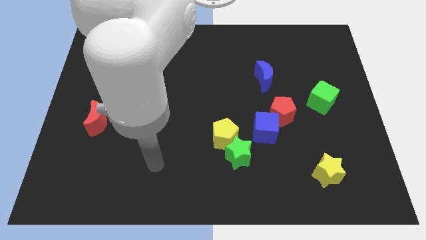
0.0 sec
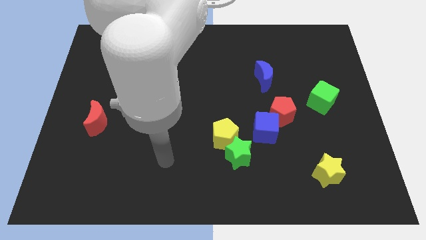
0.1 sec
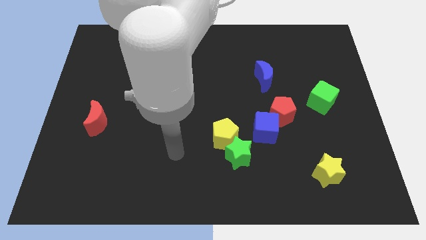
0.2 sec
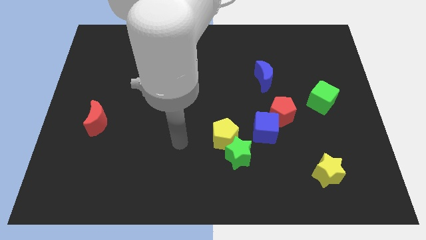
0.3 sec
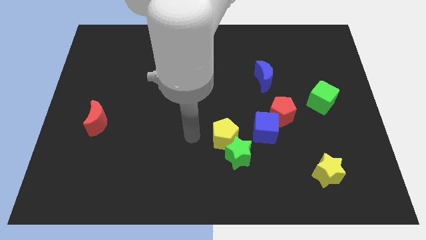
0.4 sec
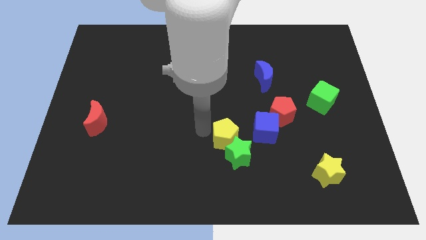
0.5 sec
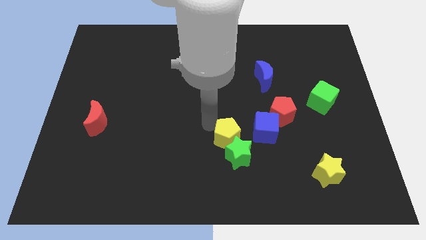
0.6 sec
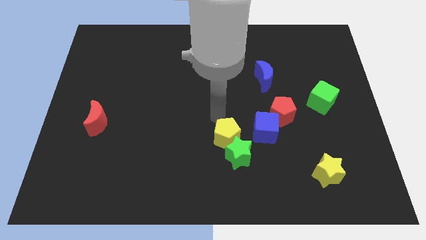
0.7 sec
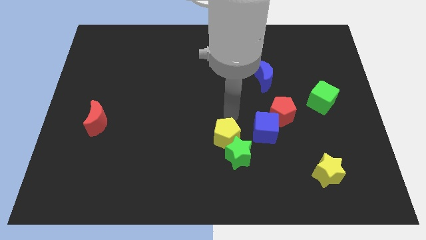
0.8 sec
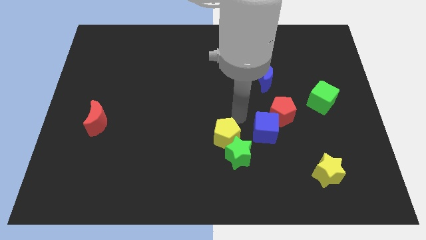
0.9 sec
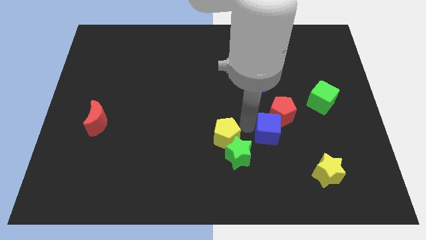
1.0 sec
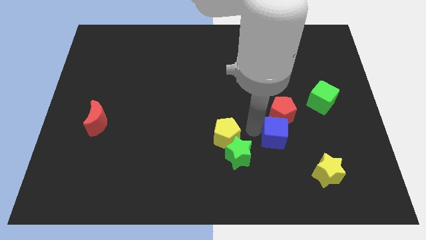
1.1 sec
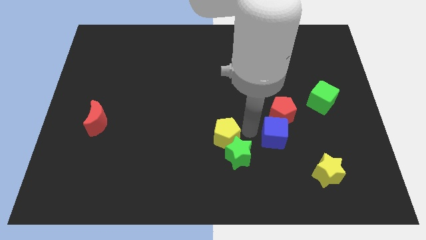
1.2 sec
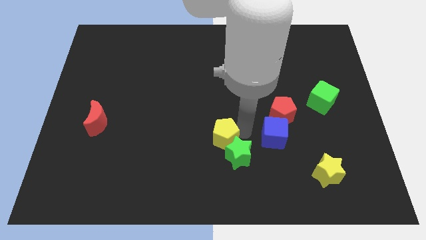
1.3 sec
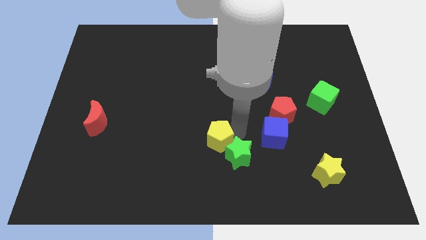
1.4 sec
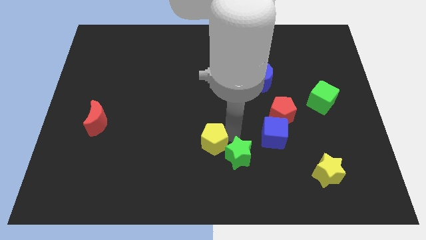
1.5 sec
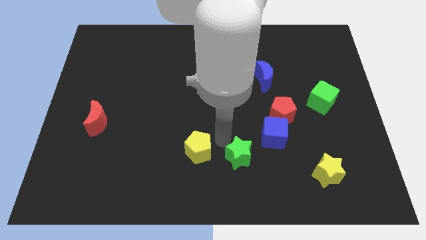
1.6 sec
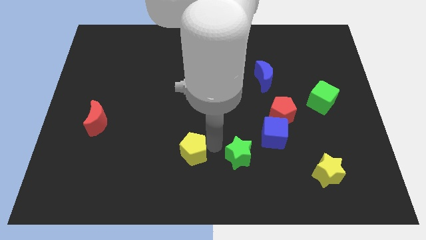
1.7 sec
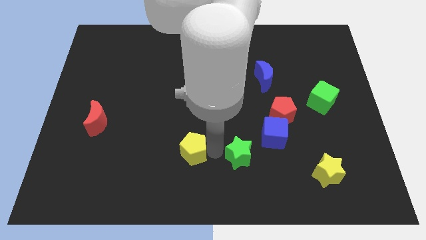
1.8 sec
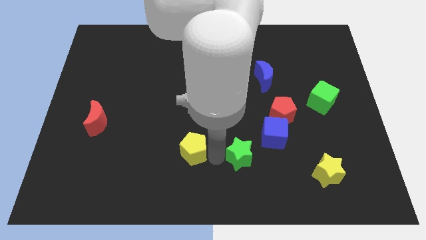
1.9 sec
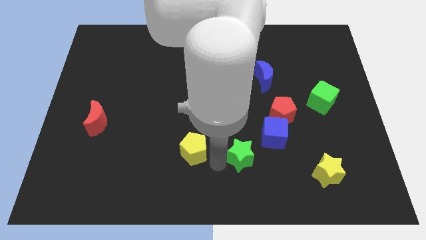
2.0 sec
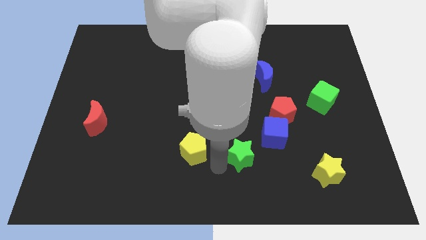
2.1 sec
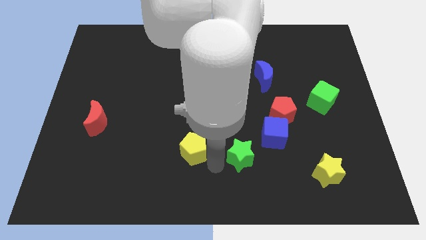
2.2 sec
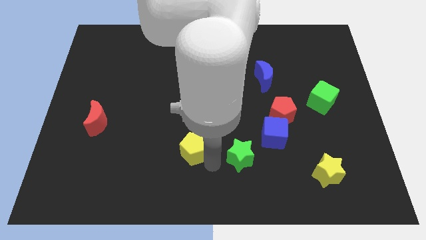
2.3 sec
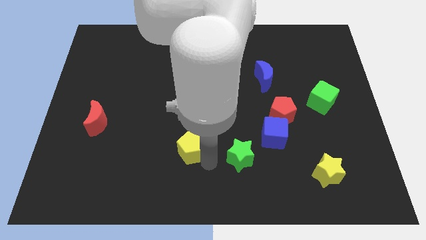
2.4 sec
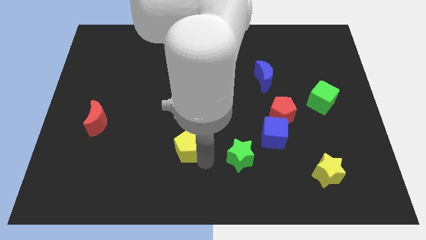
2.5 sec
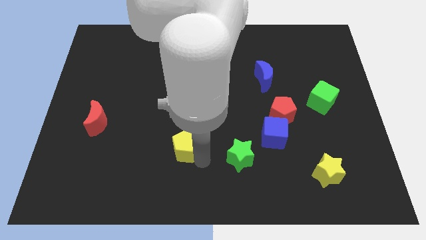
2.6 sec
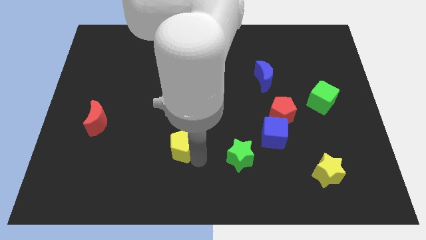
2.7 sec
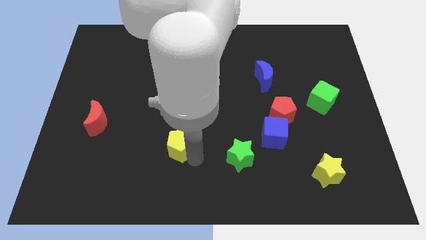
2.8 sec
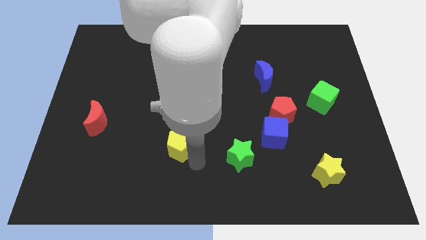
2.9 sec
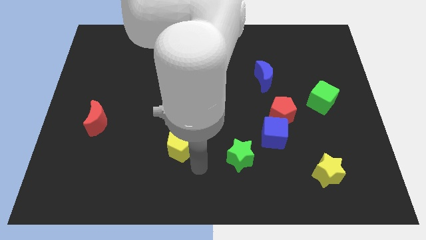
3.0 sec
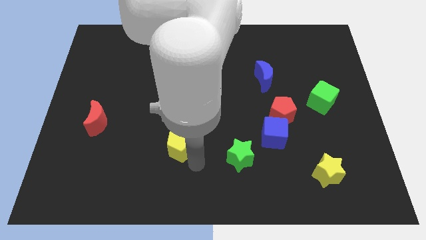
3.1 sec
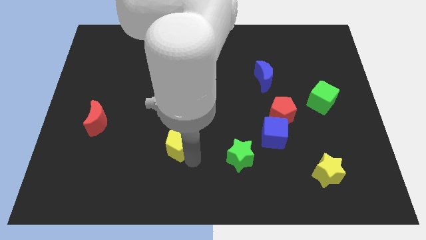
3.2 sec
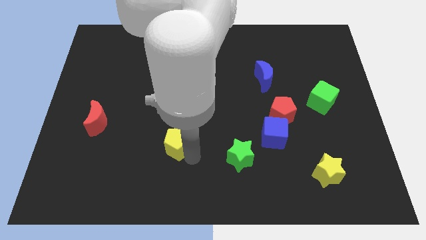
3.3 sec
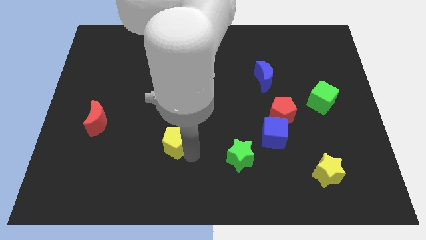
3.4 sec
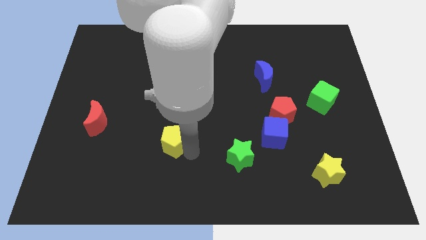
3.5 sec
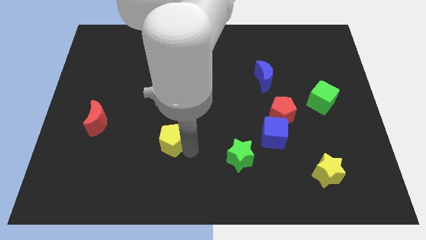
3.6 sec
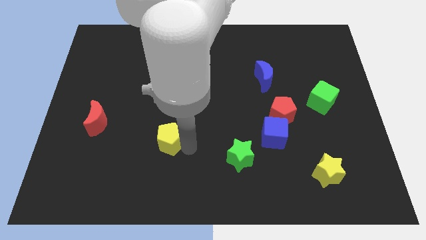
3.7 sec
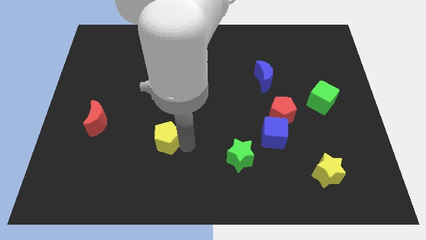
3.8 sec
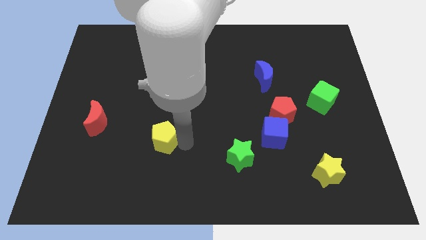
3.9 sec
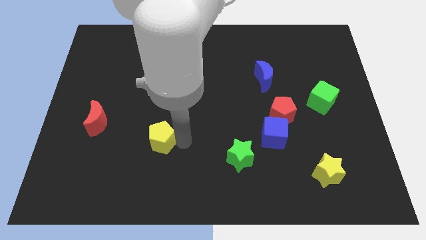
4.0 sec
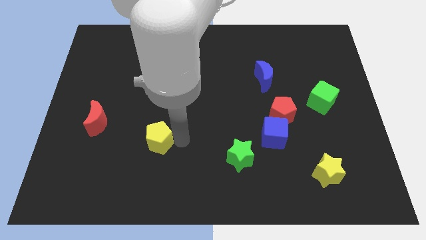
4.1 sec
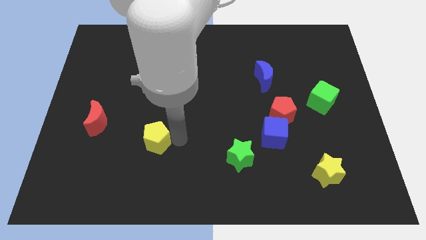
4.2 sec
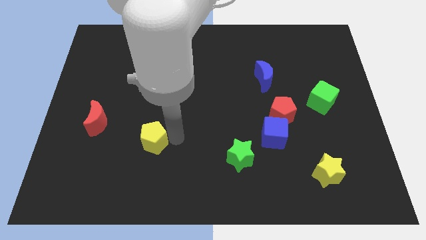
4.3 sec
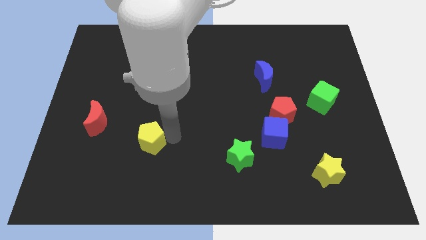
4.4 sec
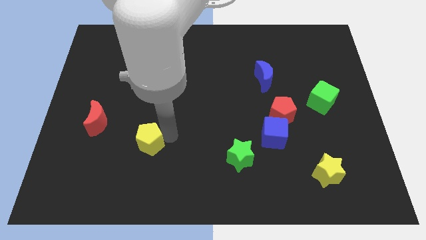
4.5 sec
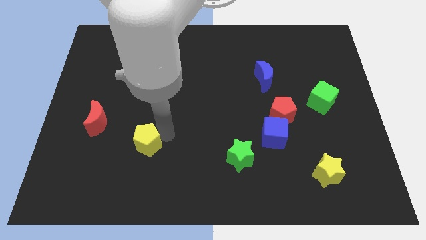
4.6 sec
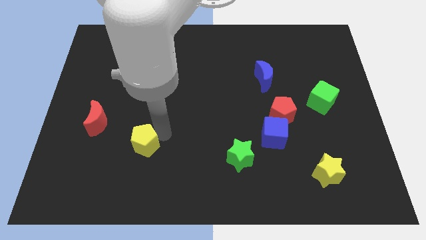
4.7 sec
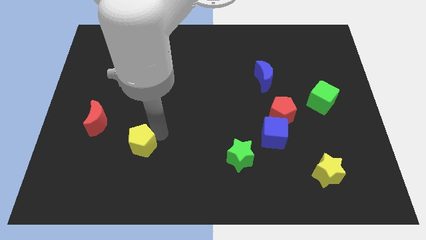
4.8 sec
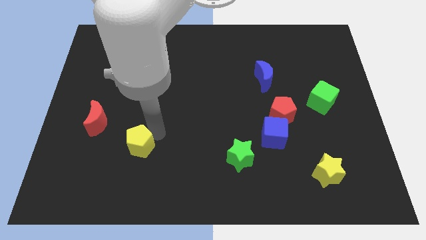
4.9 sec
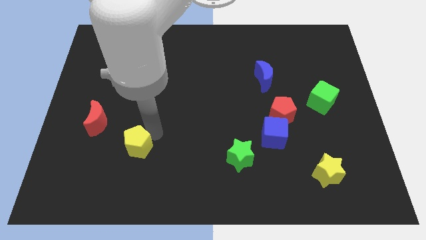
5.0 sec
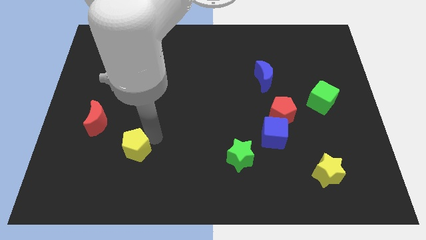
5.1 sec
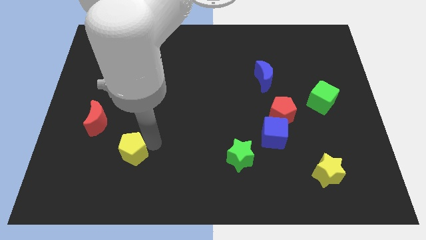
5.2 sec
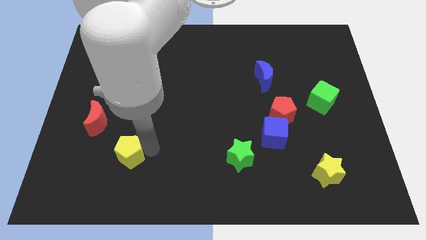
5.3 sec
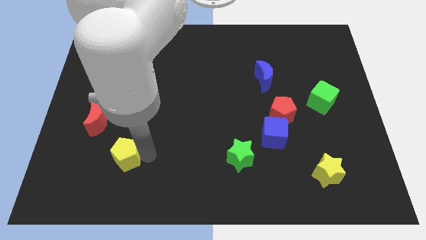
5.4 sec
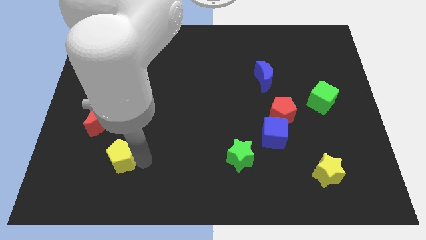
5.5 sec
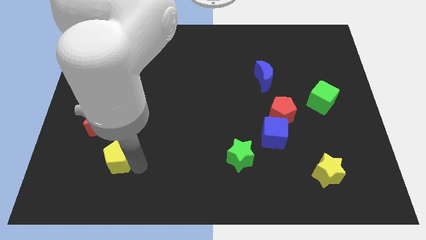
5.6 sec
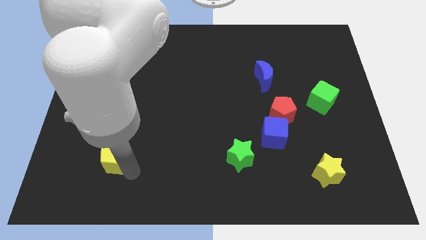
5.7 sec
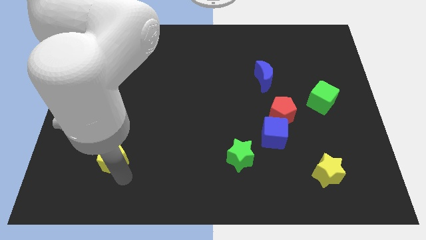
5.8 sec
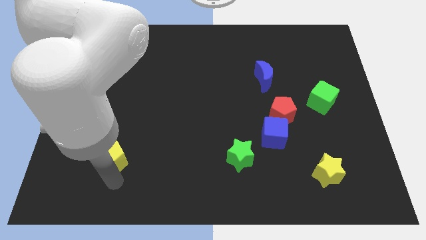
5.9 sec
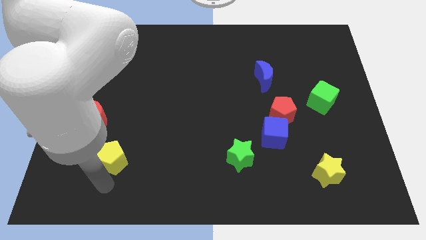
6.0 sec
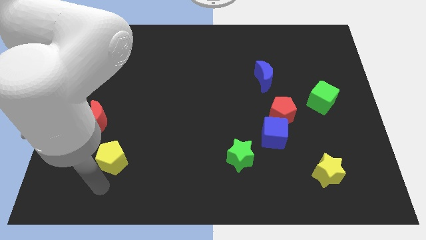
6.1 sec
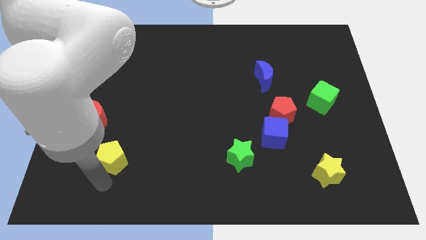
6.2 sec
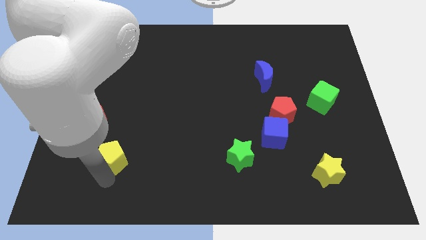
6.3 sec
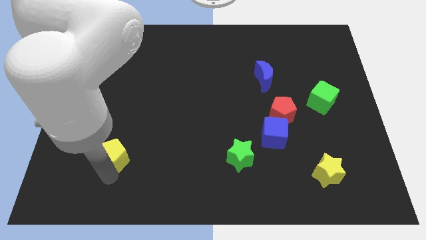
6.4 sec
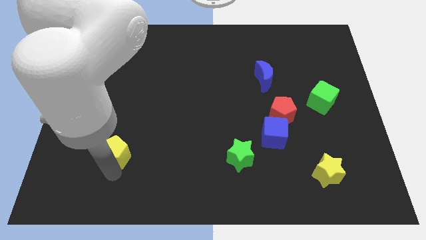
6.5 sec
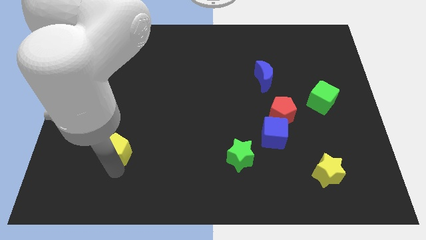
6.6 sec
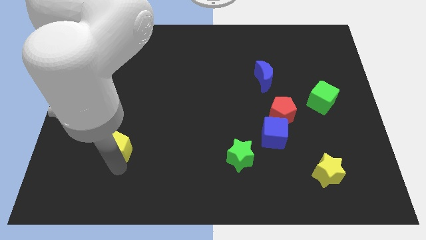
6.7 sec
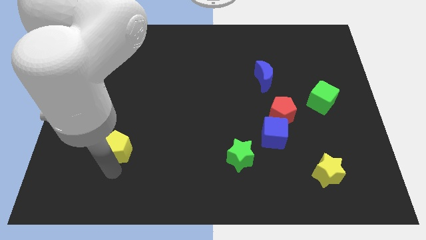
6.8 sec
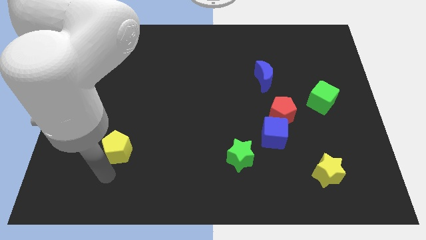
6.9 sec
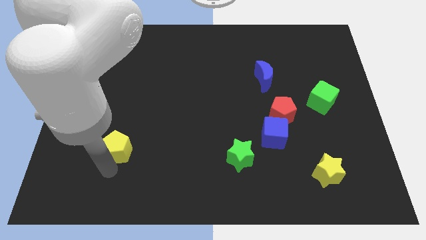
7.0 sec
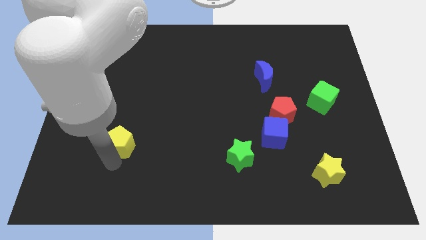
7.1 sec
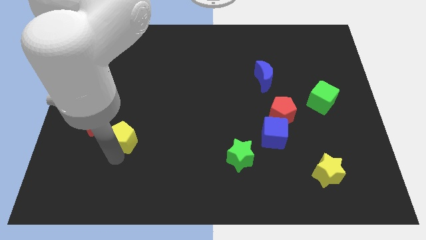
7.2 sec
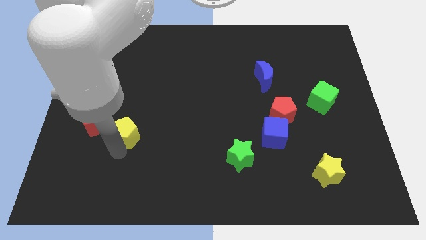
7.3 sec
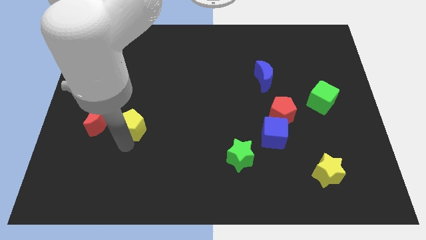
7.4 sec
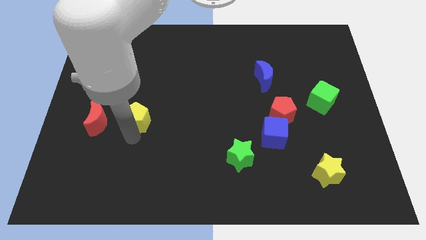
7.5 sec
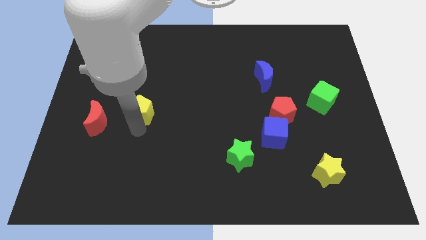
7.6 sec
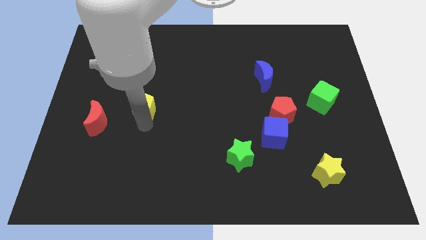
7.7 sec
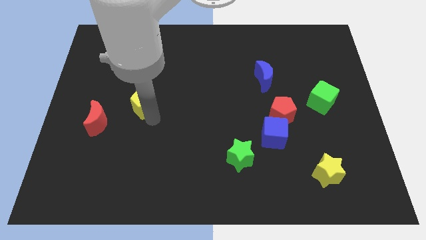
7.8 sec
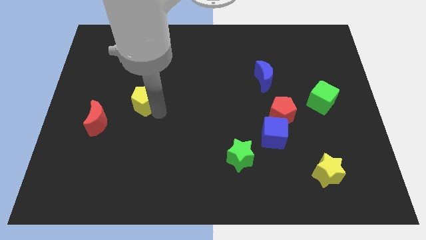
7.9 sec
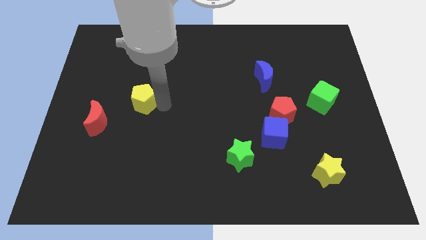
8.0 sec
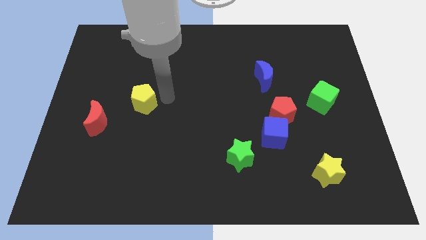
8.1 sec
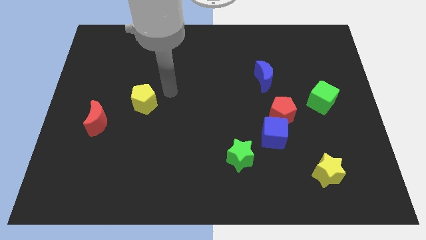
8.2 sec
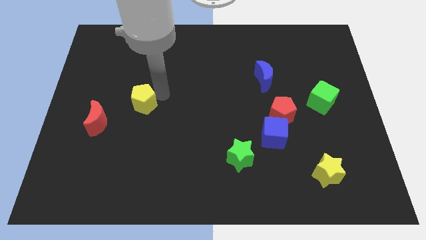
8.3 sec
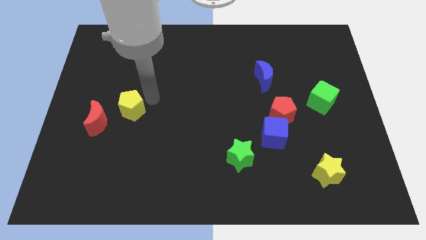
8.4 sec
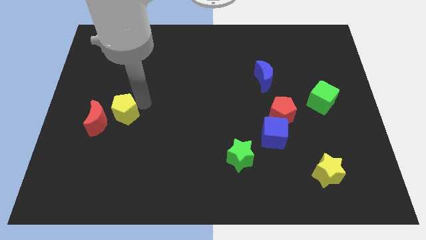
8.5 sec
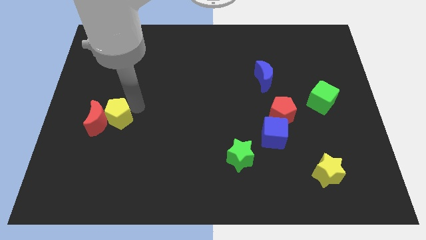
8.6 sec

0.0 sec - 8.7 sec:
put the yellow pentagon close to the red moon
